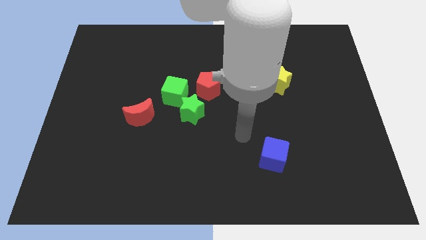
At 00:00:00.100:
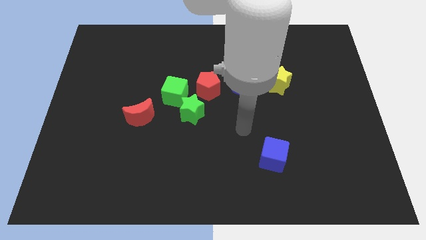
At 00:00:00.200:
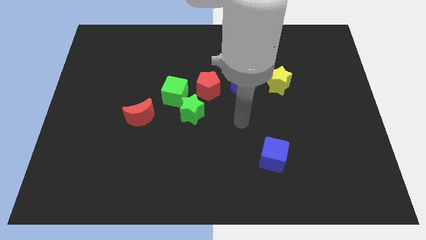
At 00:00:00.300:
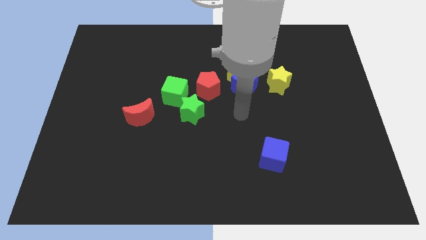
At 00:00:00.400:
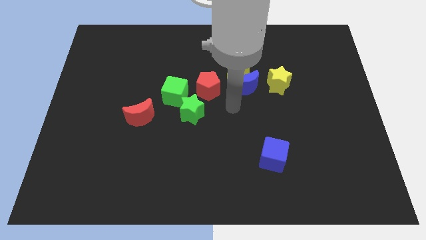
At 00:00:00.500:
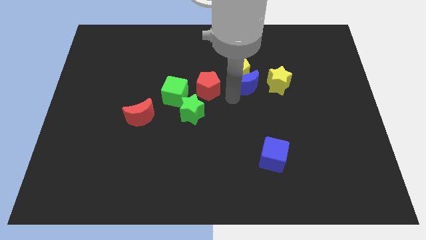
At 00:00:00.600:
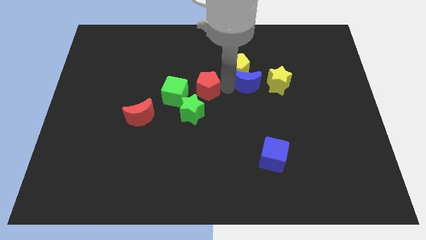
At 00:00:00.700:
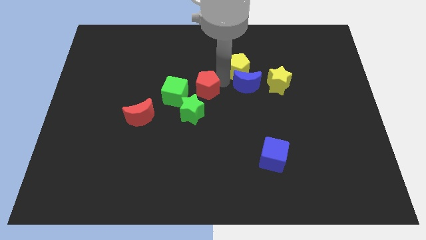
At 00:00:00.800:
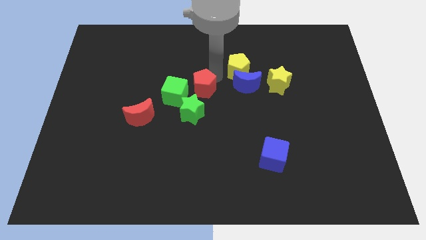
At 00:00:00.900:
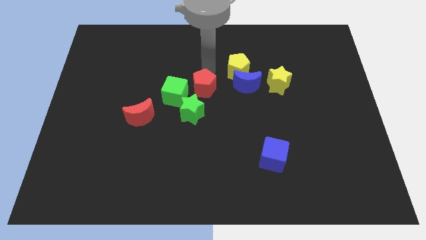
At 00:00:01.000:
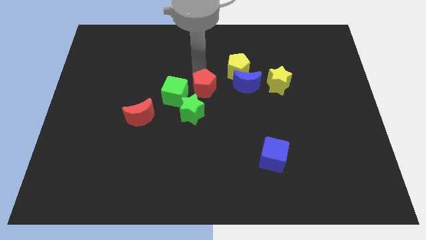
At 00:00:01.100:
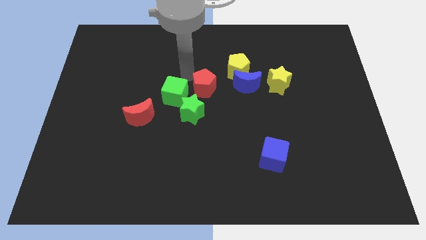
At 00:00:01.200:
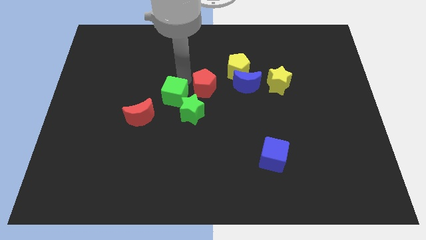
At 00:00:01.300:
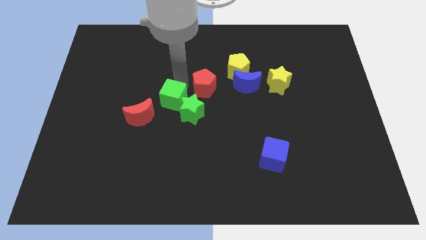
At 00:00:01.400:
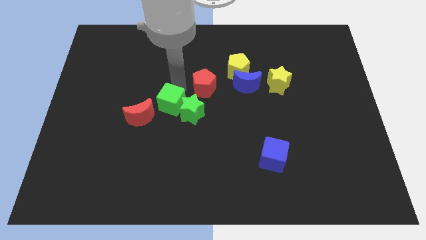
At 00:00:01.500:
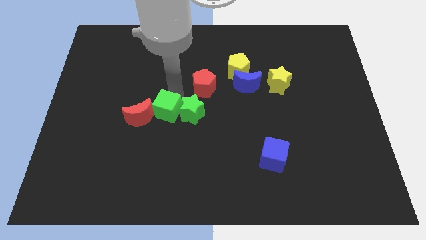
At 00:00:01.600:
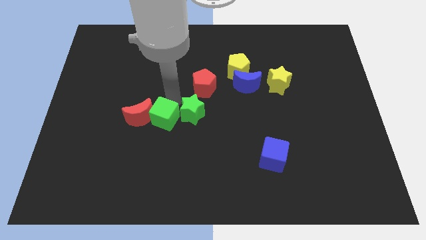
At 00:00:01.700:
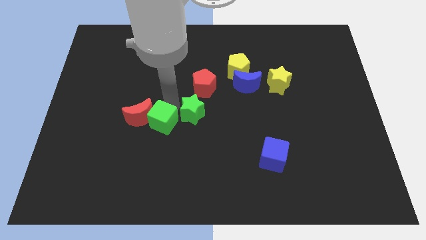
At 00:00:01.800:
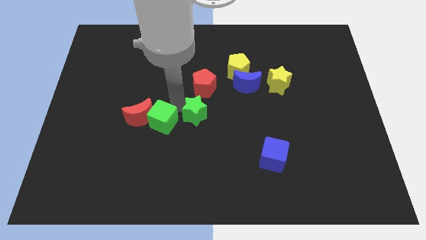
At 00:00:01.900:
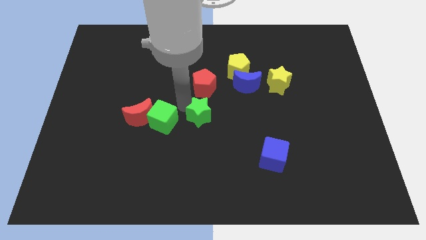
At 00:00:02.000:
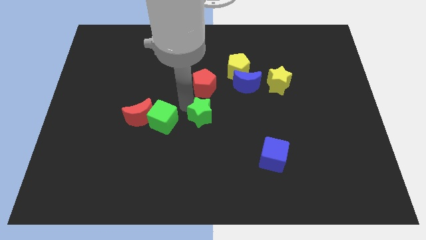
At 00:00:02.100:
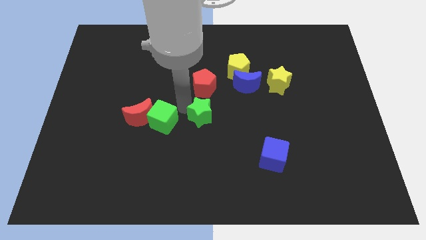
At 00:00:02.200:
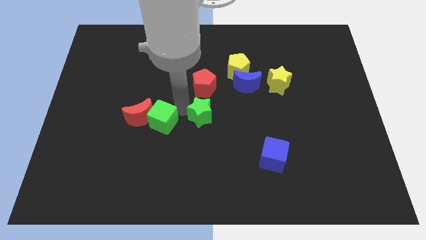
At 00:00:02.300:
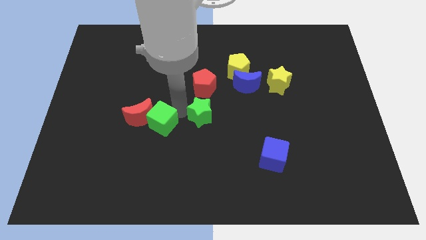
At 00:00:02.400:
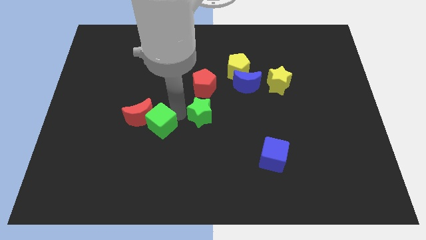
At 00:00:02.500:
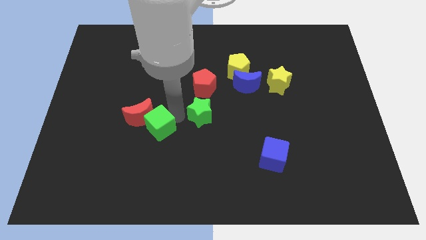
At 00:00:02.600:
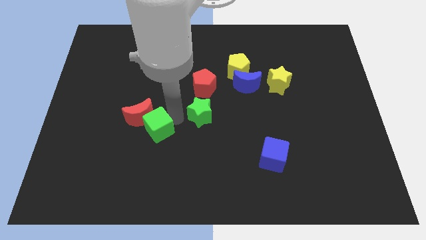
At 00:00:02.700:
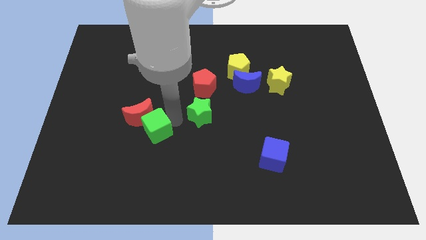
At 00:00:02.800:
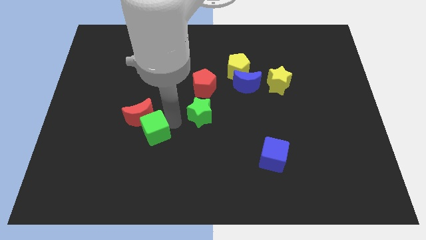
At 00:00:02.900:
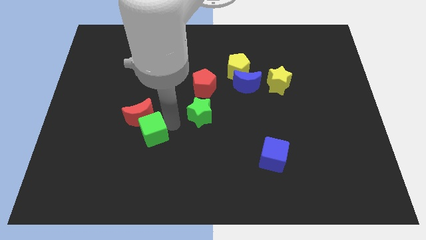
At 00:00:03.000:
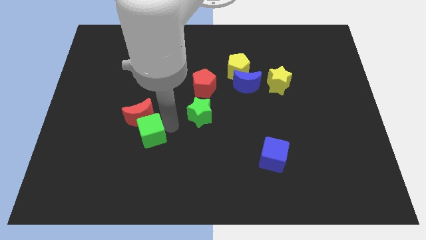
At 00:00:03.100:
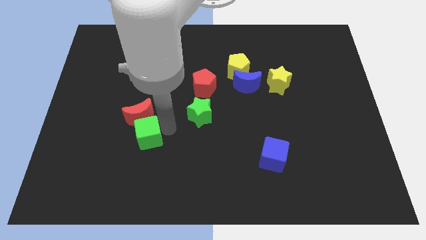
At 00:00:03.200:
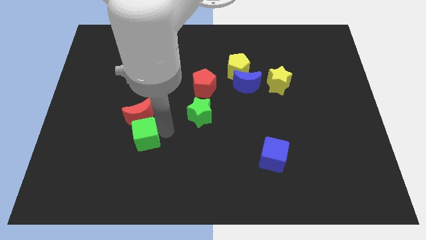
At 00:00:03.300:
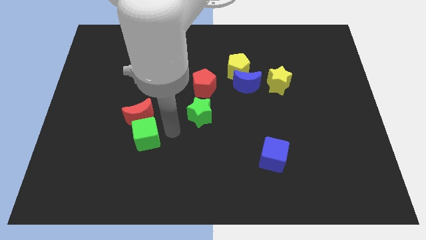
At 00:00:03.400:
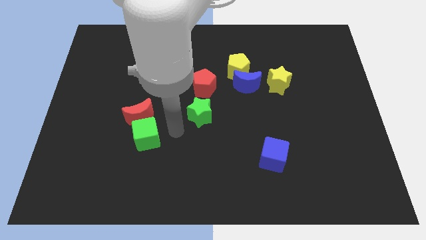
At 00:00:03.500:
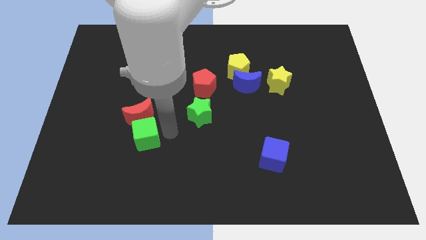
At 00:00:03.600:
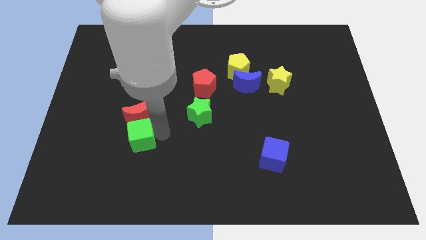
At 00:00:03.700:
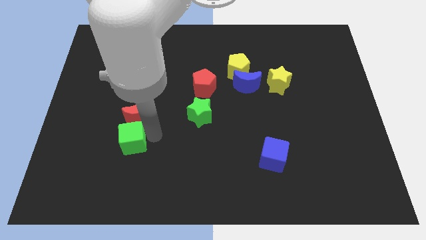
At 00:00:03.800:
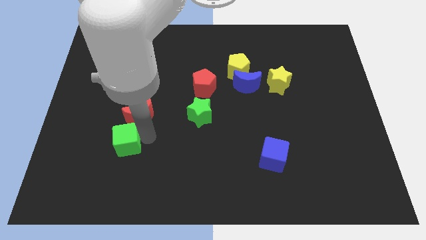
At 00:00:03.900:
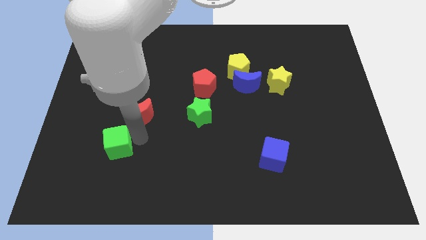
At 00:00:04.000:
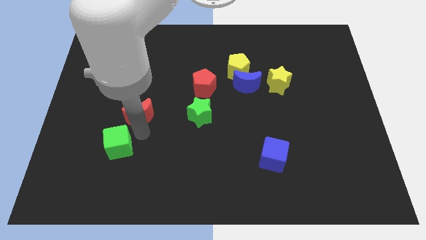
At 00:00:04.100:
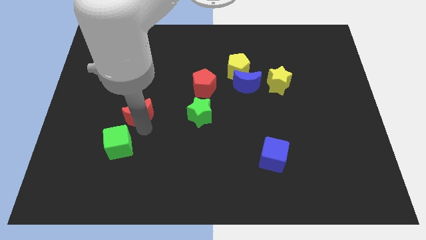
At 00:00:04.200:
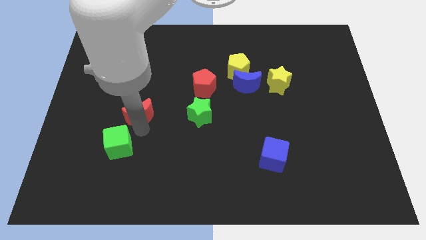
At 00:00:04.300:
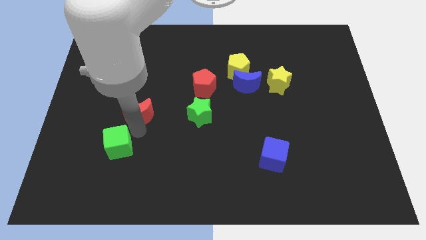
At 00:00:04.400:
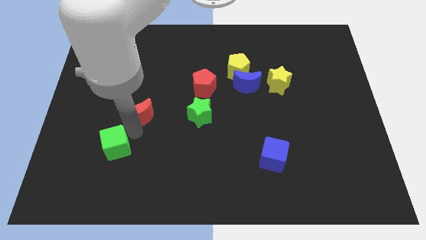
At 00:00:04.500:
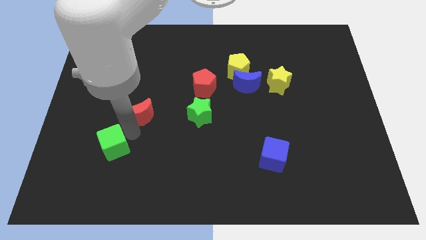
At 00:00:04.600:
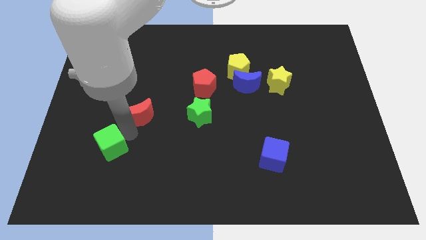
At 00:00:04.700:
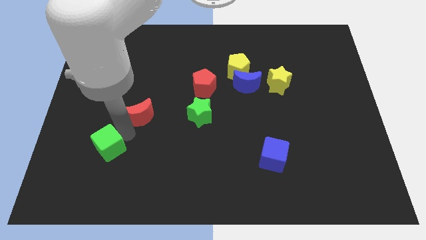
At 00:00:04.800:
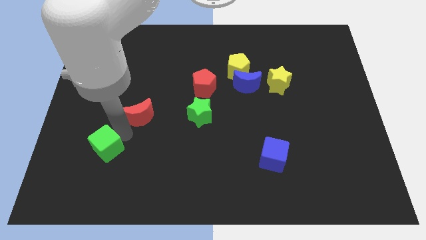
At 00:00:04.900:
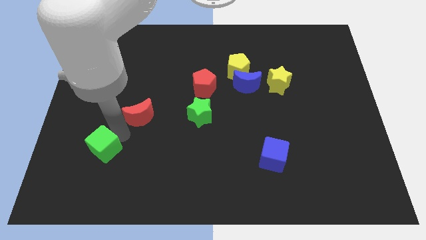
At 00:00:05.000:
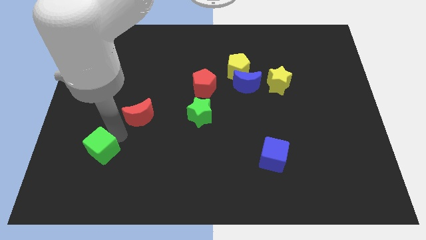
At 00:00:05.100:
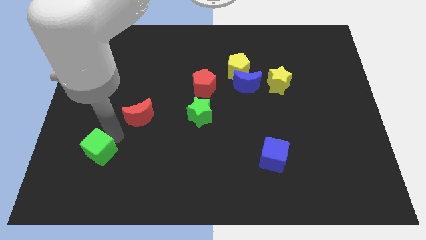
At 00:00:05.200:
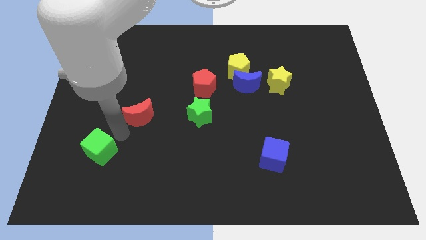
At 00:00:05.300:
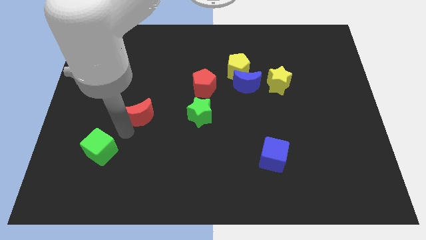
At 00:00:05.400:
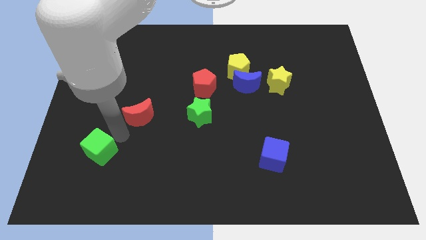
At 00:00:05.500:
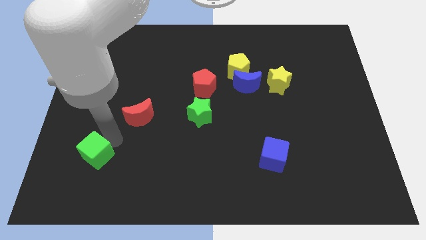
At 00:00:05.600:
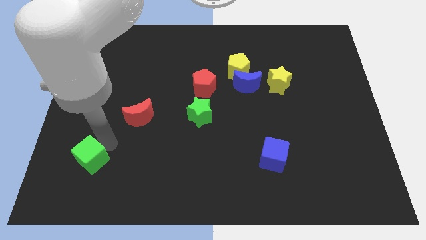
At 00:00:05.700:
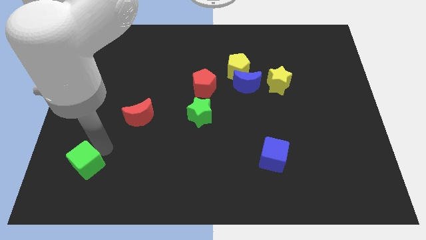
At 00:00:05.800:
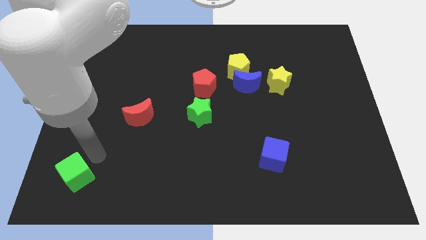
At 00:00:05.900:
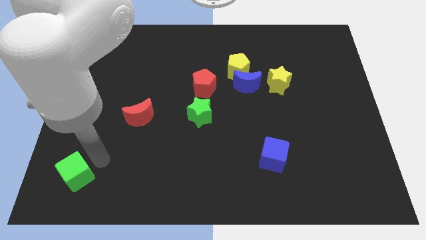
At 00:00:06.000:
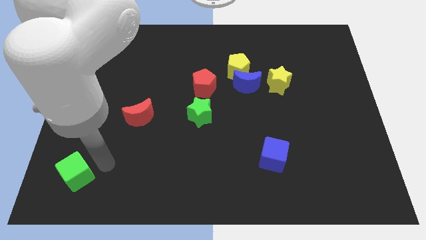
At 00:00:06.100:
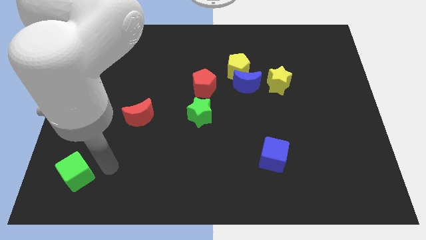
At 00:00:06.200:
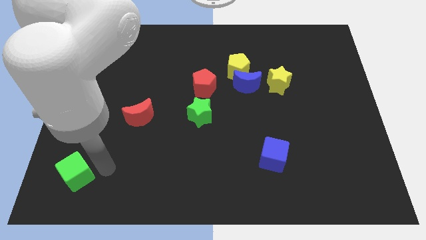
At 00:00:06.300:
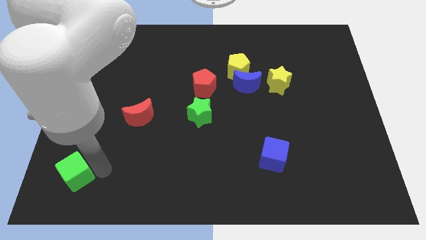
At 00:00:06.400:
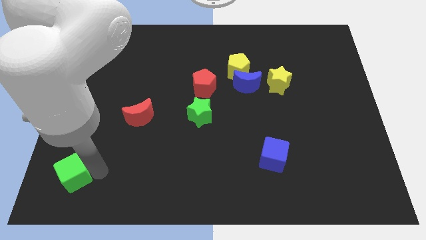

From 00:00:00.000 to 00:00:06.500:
push the green cube to the bottom left

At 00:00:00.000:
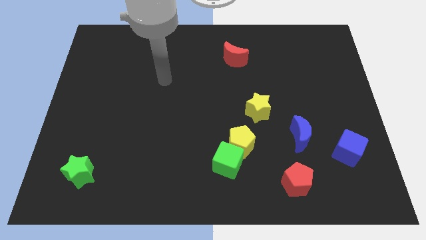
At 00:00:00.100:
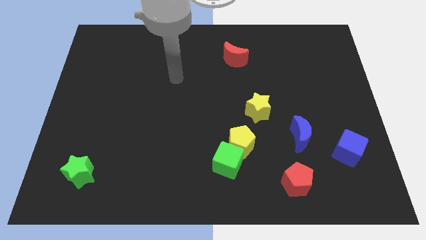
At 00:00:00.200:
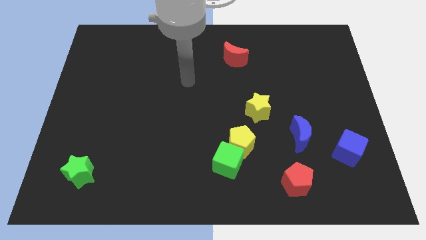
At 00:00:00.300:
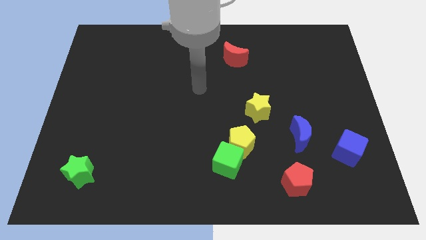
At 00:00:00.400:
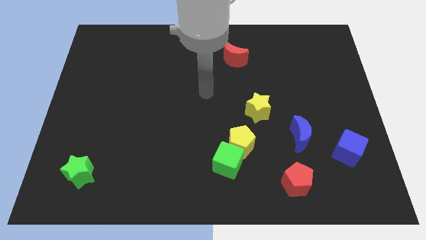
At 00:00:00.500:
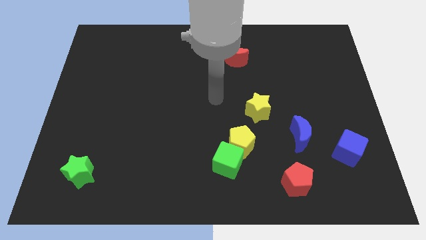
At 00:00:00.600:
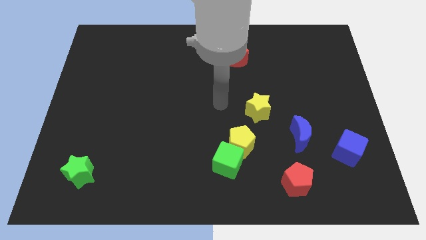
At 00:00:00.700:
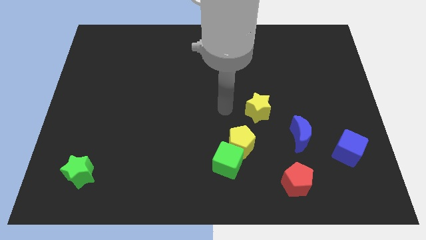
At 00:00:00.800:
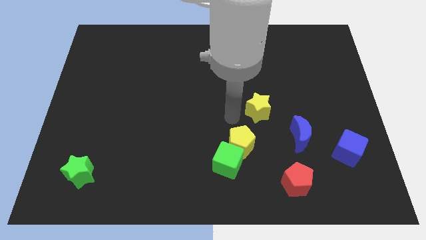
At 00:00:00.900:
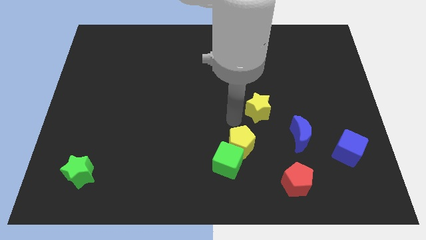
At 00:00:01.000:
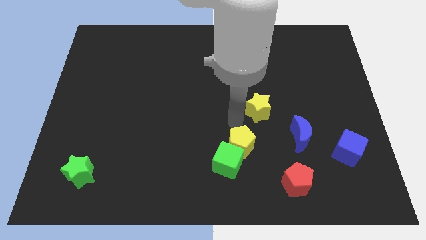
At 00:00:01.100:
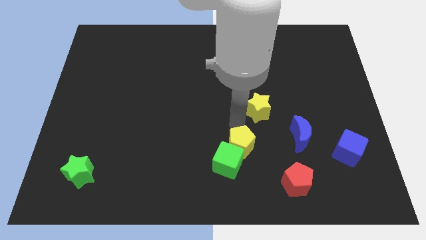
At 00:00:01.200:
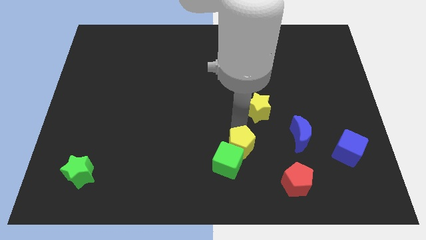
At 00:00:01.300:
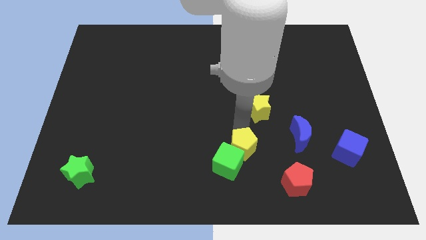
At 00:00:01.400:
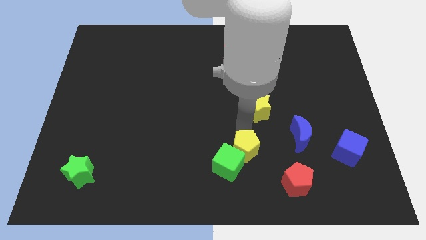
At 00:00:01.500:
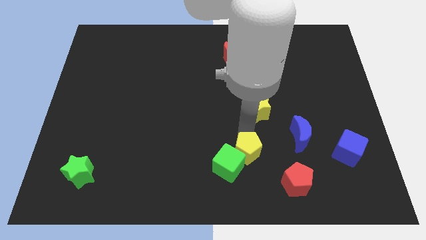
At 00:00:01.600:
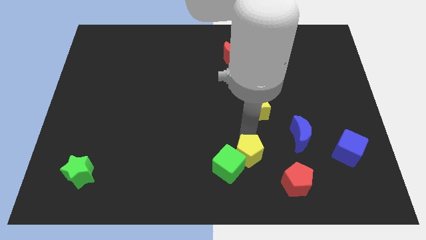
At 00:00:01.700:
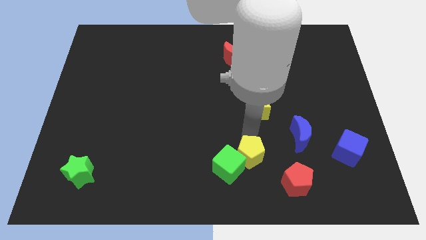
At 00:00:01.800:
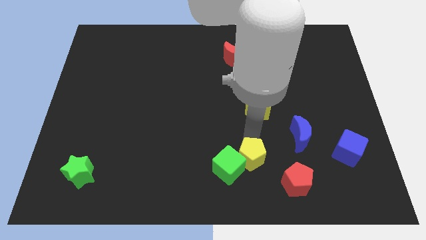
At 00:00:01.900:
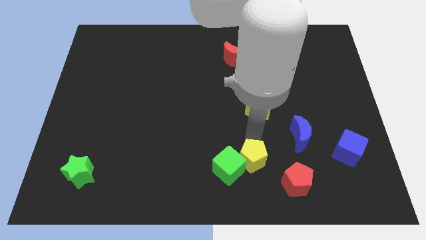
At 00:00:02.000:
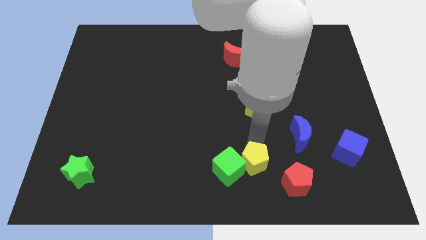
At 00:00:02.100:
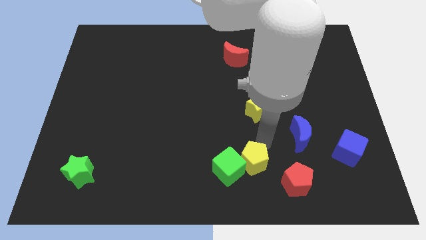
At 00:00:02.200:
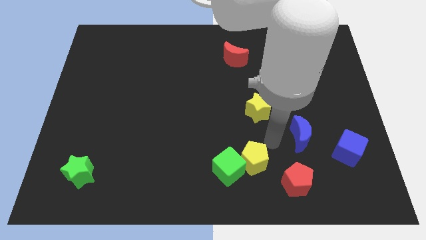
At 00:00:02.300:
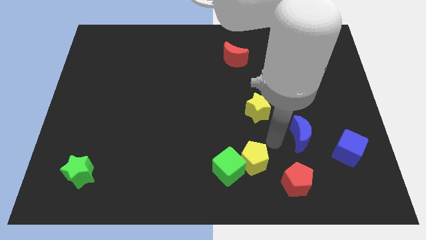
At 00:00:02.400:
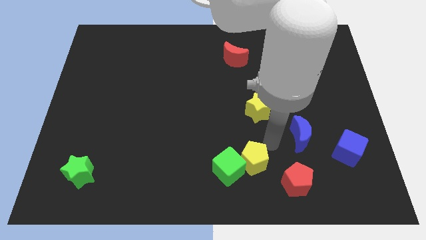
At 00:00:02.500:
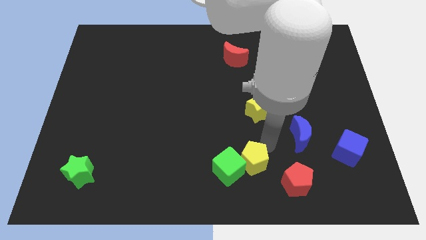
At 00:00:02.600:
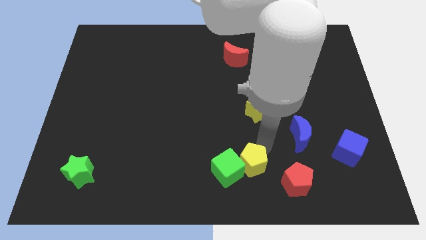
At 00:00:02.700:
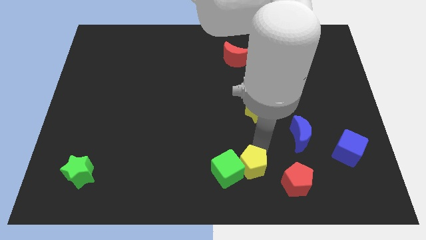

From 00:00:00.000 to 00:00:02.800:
move the yellow pentagon to the bottom side
